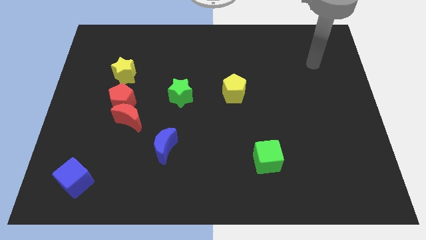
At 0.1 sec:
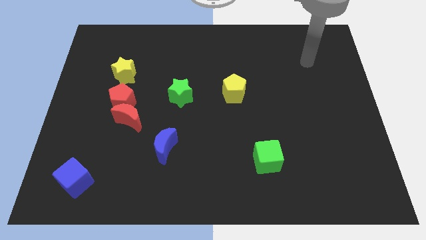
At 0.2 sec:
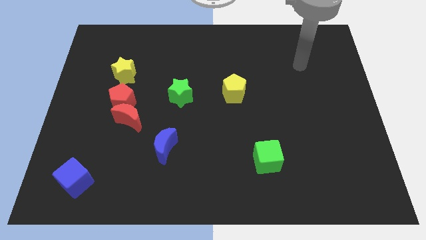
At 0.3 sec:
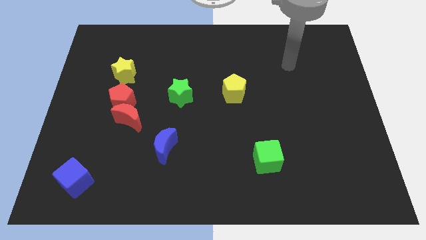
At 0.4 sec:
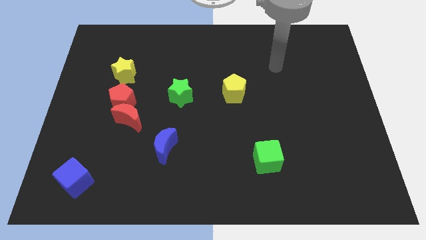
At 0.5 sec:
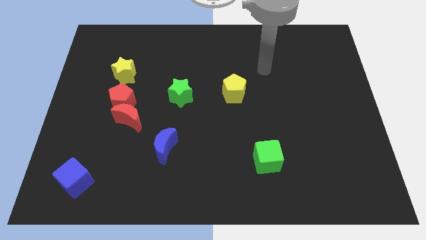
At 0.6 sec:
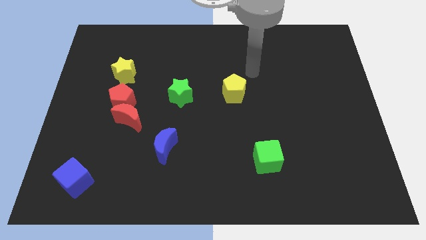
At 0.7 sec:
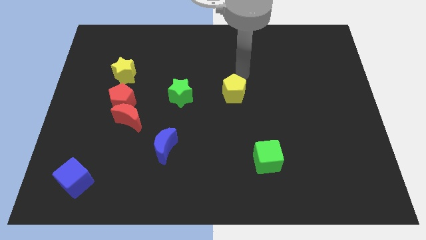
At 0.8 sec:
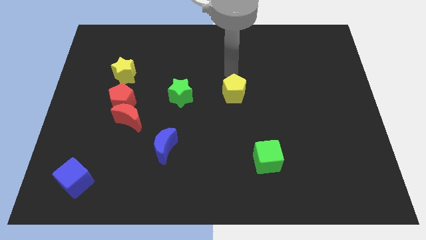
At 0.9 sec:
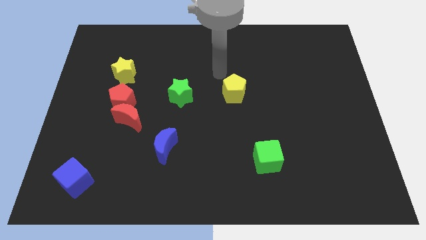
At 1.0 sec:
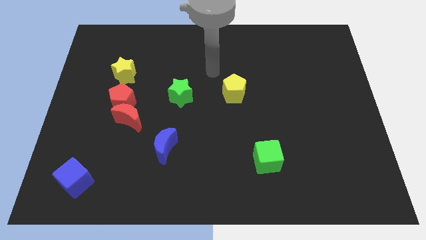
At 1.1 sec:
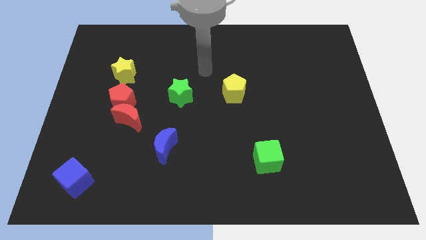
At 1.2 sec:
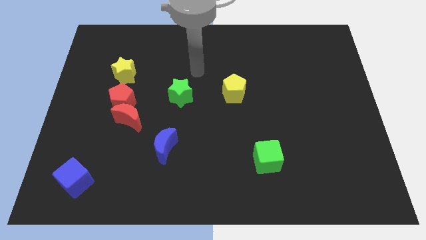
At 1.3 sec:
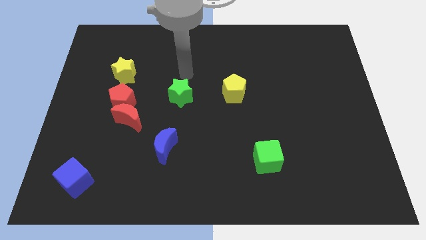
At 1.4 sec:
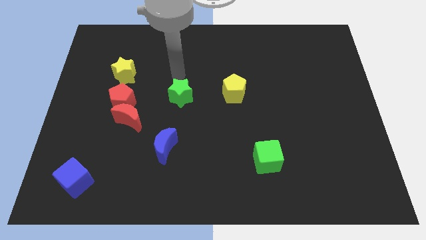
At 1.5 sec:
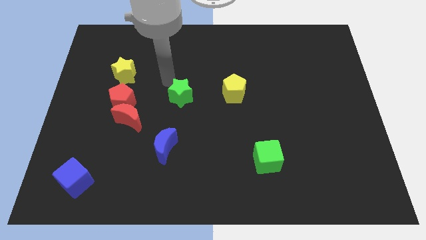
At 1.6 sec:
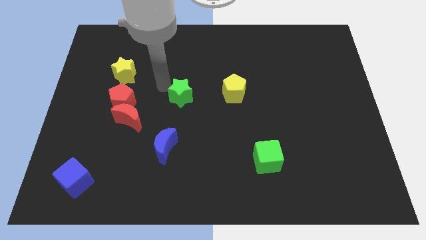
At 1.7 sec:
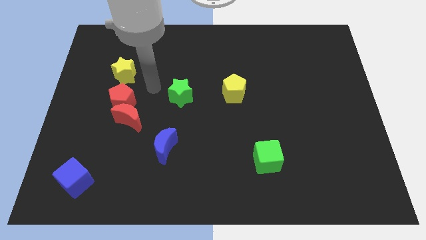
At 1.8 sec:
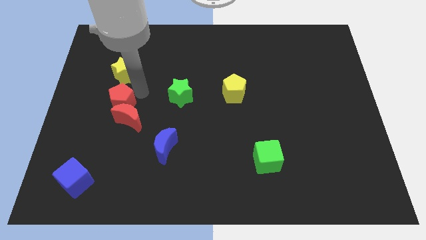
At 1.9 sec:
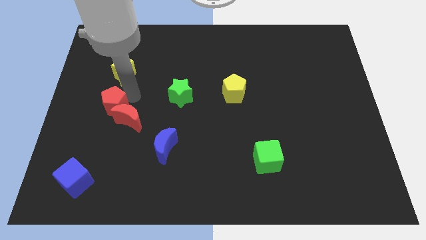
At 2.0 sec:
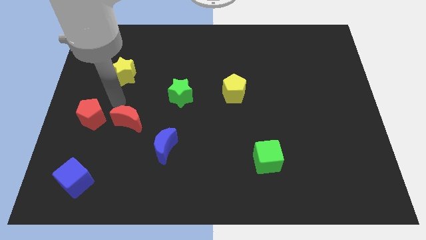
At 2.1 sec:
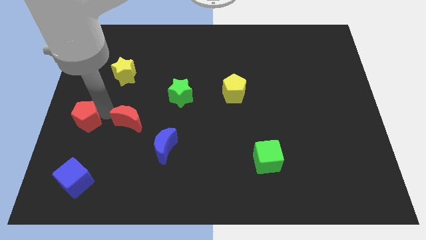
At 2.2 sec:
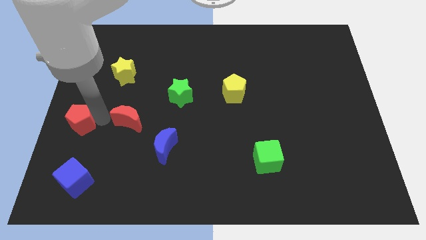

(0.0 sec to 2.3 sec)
separate the red moon from the red pentagon

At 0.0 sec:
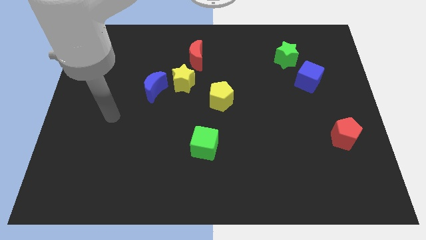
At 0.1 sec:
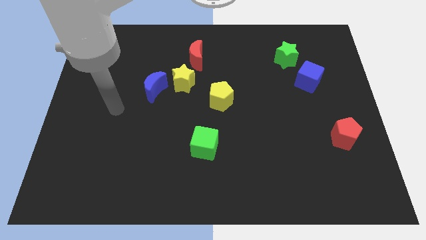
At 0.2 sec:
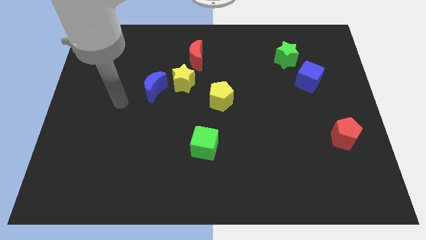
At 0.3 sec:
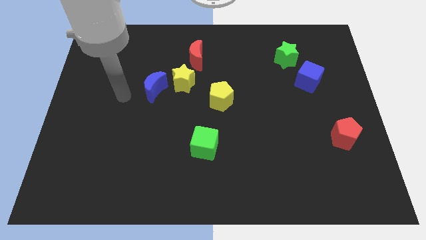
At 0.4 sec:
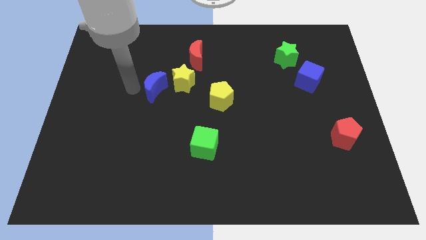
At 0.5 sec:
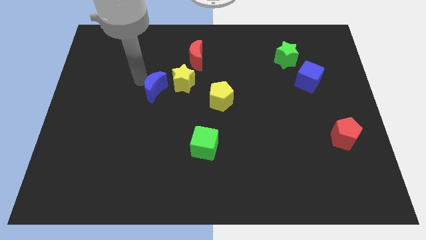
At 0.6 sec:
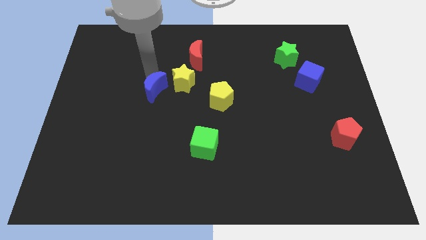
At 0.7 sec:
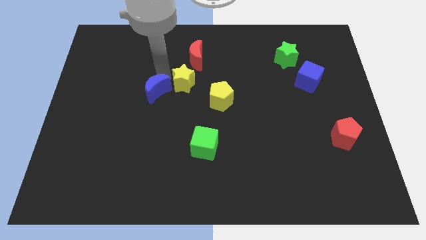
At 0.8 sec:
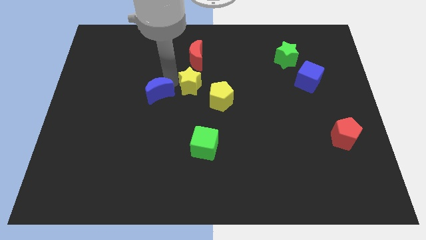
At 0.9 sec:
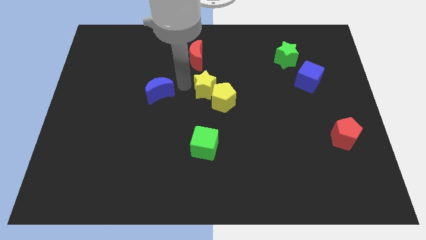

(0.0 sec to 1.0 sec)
move the blue moon away from the yellow star

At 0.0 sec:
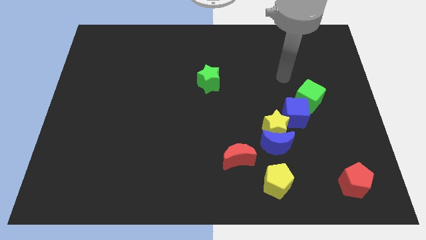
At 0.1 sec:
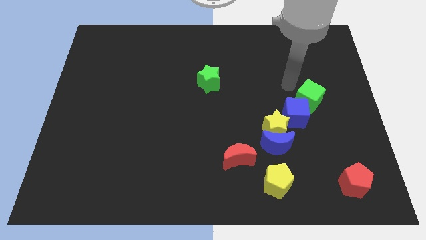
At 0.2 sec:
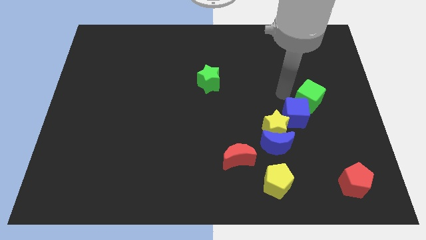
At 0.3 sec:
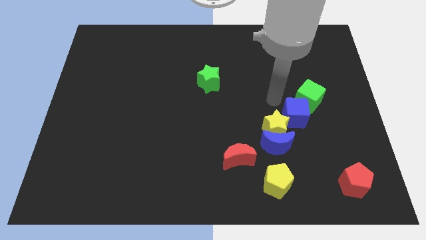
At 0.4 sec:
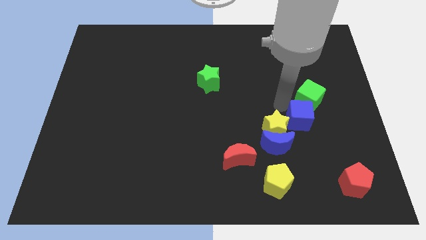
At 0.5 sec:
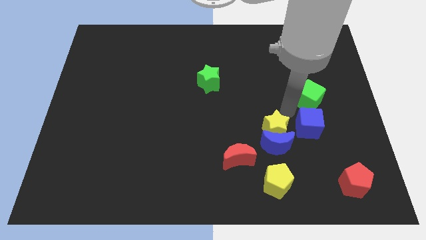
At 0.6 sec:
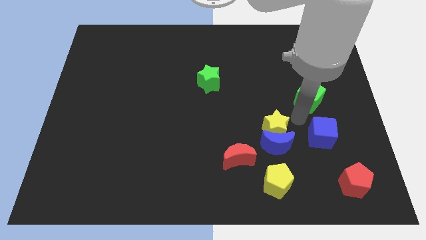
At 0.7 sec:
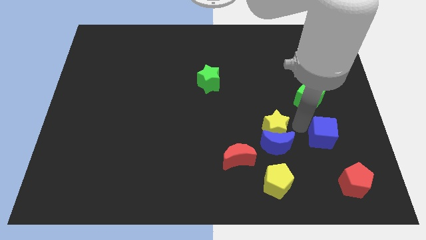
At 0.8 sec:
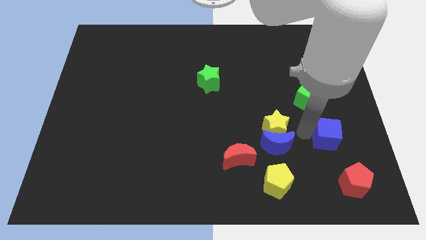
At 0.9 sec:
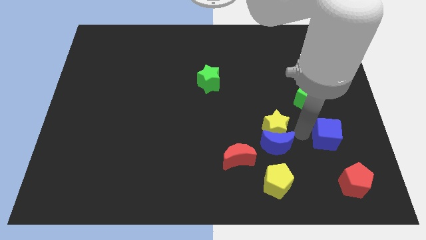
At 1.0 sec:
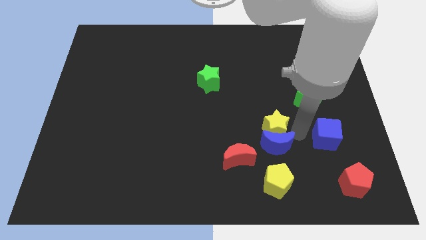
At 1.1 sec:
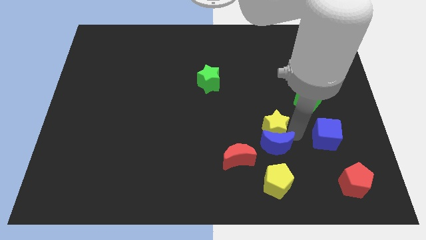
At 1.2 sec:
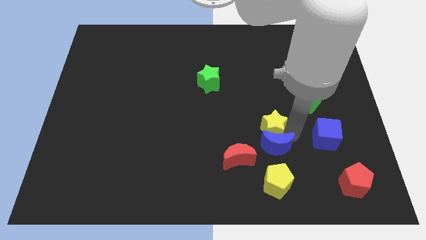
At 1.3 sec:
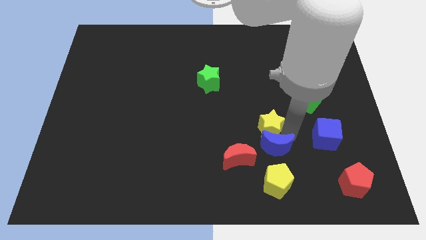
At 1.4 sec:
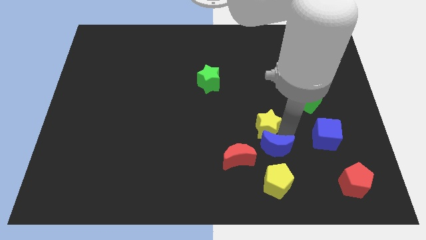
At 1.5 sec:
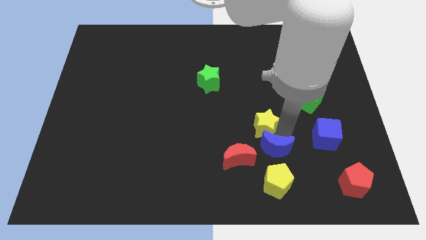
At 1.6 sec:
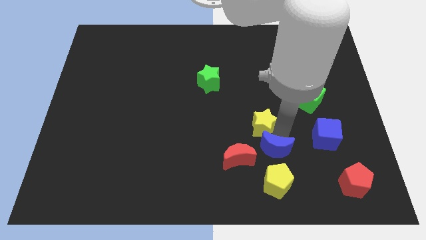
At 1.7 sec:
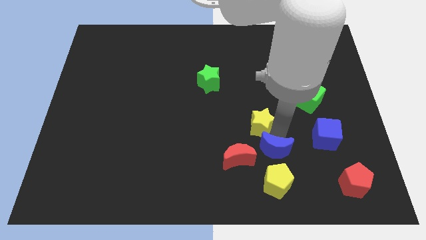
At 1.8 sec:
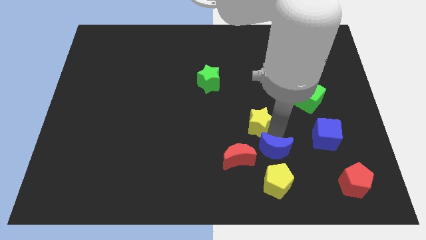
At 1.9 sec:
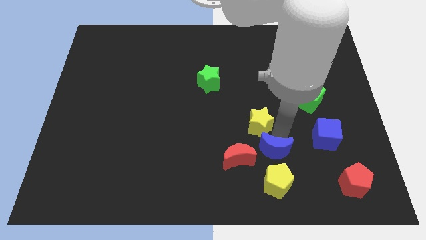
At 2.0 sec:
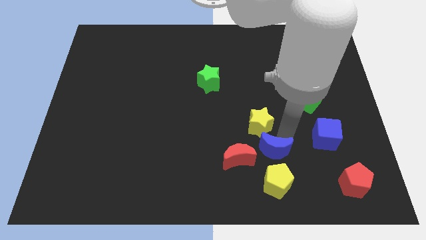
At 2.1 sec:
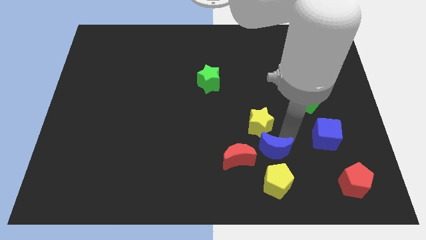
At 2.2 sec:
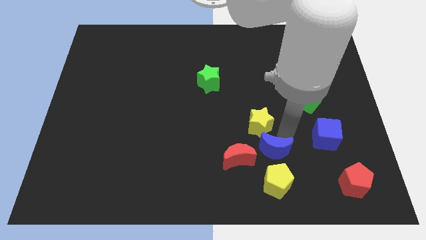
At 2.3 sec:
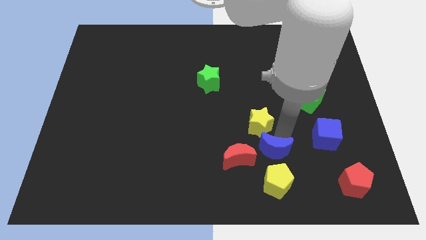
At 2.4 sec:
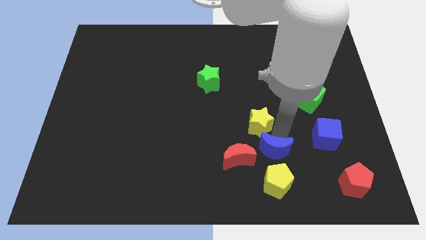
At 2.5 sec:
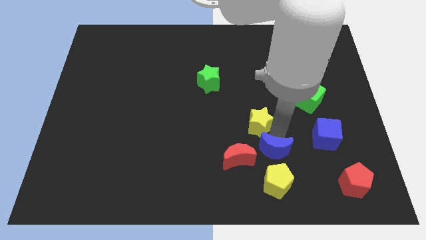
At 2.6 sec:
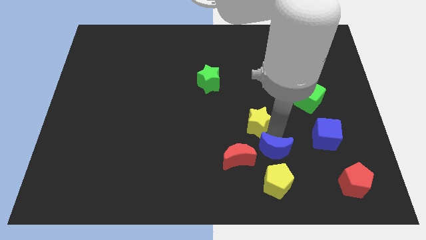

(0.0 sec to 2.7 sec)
separate the yellow star from the blue moon and blue cube

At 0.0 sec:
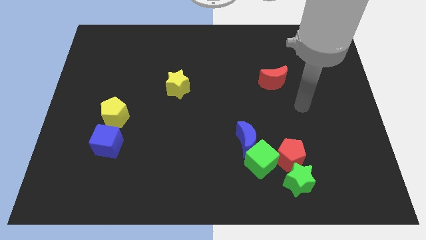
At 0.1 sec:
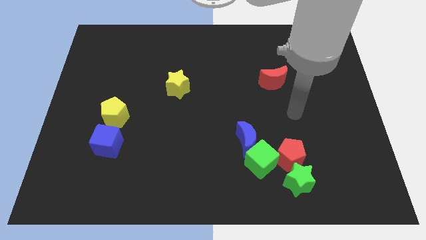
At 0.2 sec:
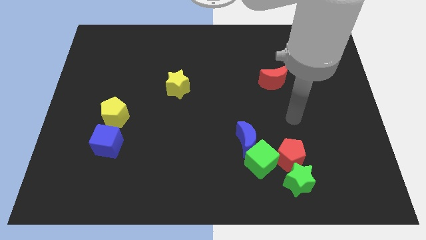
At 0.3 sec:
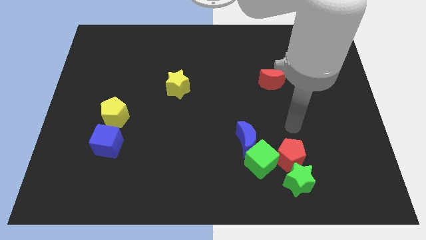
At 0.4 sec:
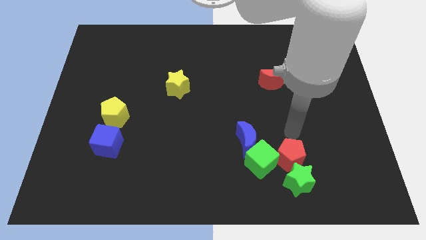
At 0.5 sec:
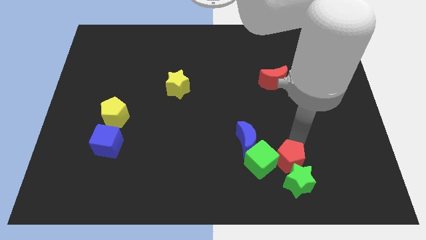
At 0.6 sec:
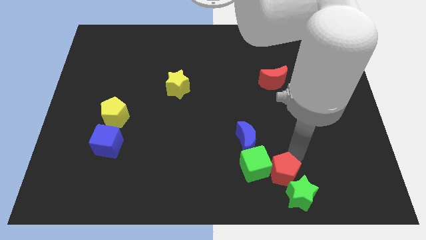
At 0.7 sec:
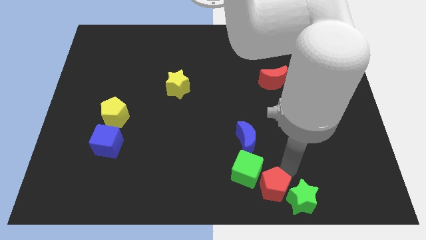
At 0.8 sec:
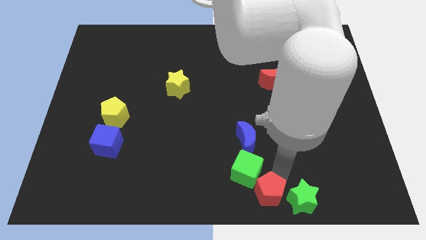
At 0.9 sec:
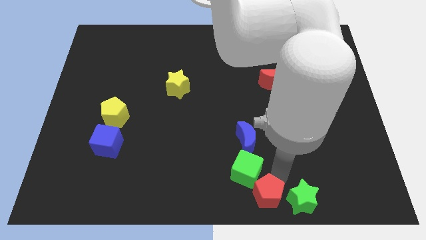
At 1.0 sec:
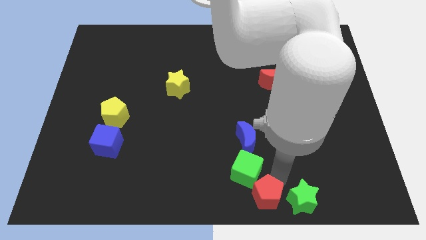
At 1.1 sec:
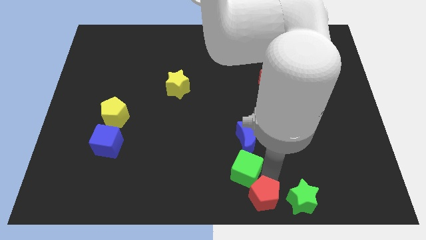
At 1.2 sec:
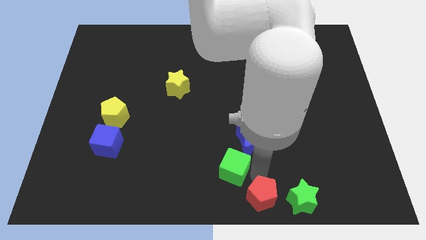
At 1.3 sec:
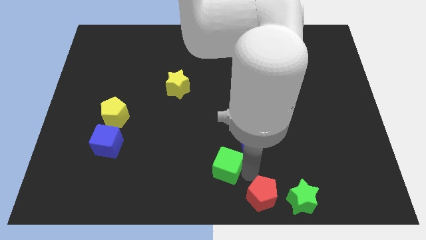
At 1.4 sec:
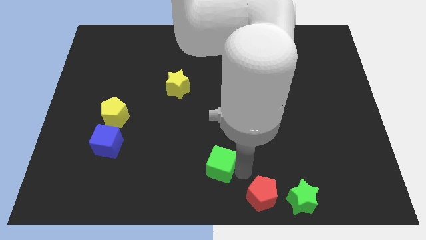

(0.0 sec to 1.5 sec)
separate the green cube from the blue moon, red pentagon, and green star

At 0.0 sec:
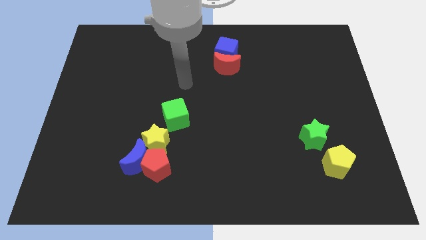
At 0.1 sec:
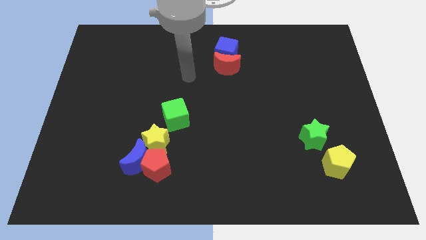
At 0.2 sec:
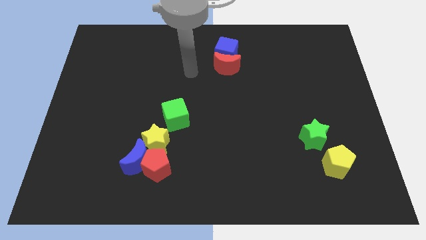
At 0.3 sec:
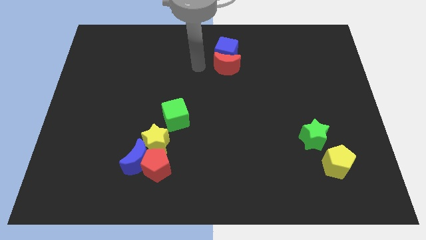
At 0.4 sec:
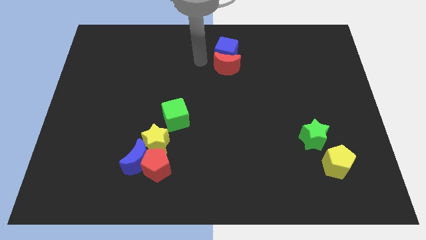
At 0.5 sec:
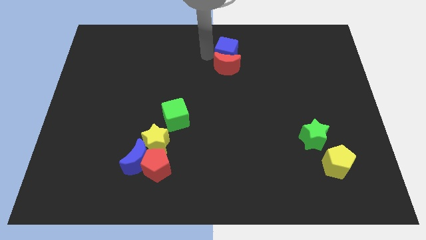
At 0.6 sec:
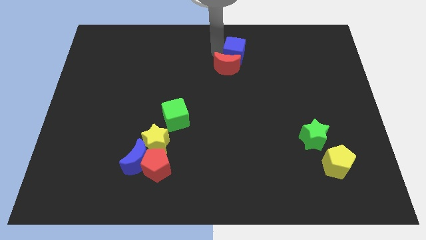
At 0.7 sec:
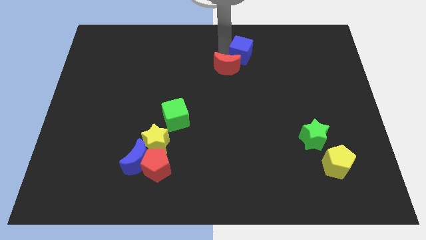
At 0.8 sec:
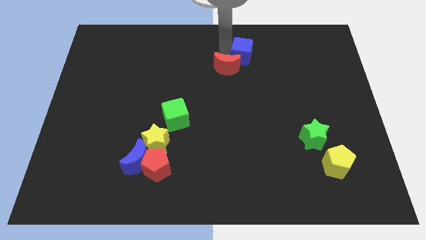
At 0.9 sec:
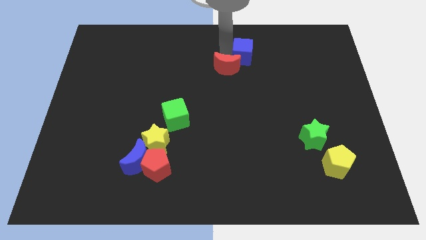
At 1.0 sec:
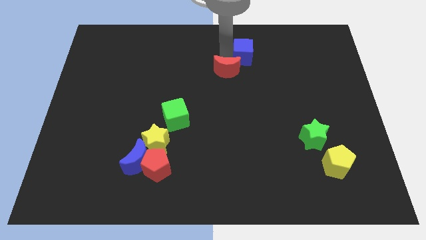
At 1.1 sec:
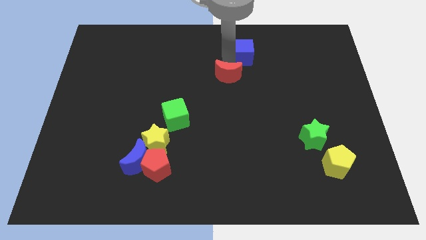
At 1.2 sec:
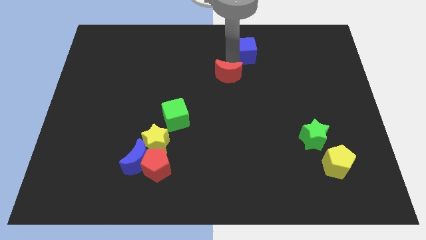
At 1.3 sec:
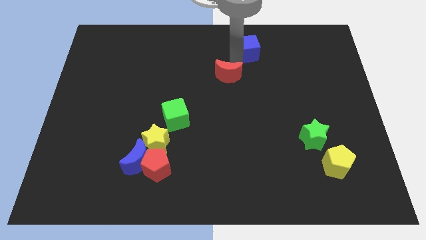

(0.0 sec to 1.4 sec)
pull the red moon apart from the blue cube

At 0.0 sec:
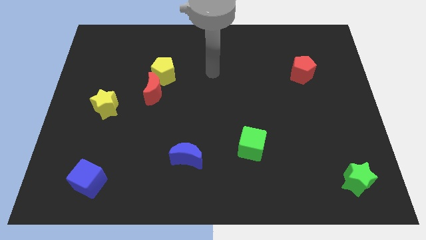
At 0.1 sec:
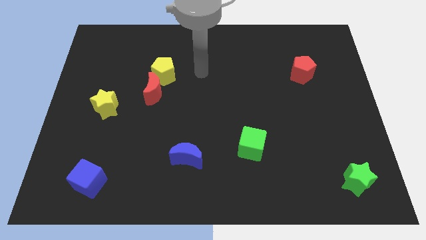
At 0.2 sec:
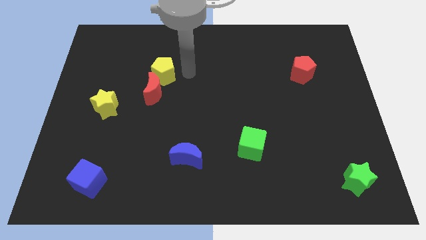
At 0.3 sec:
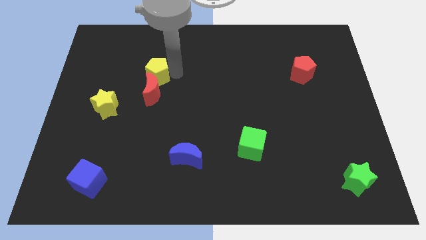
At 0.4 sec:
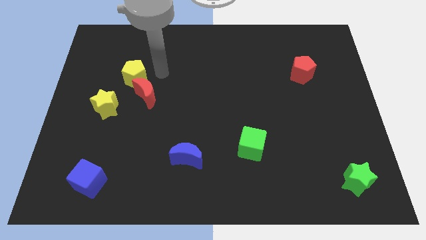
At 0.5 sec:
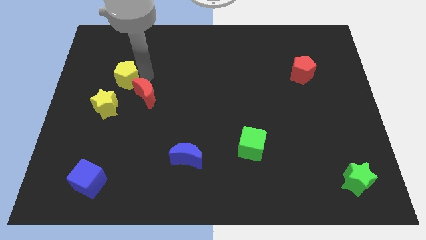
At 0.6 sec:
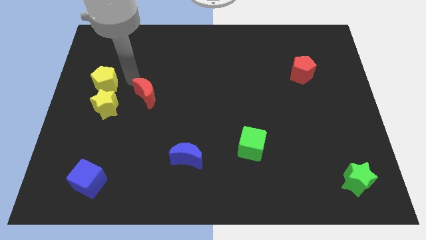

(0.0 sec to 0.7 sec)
pull the red moon apart from the yellow pentagon
